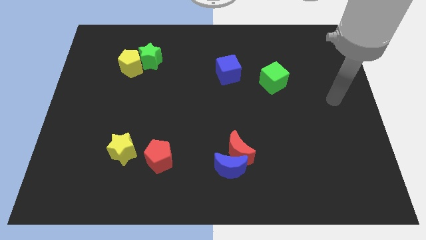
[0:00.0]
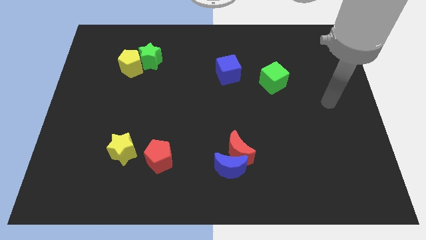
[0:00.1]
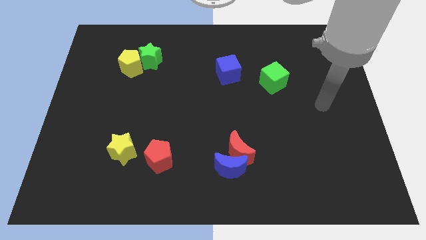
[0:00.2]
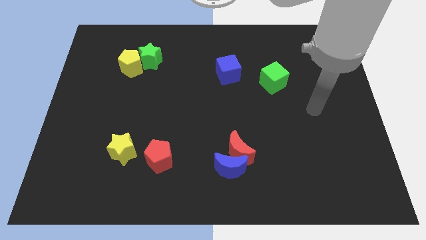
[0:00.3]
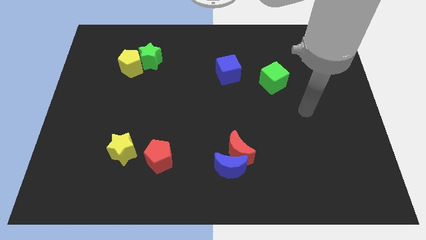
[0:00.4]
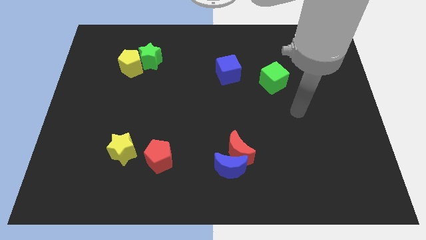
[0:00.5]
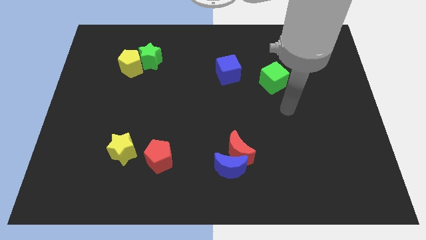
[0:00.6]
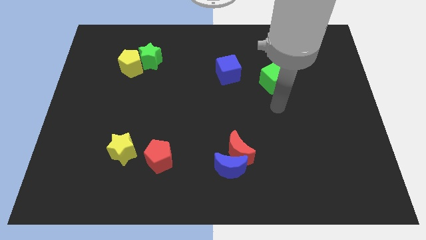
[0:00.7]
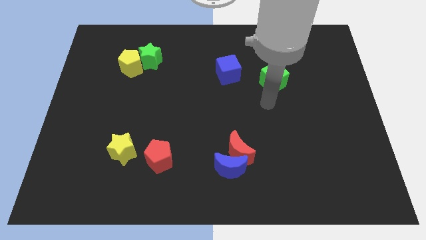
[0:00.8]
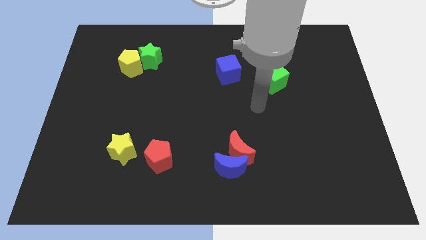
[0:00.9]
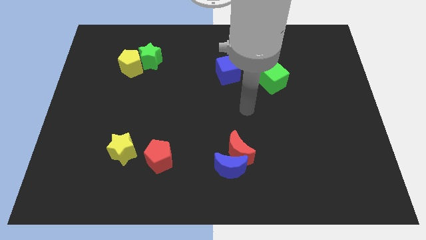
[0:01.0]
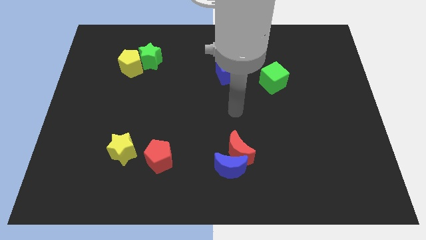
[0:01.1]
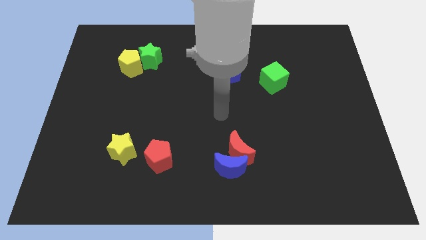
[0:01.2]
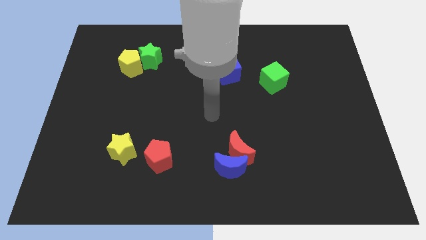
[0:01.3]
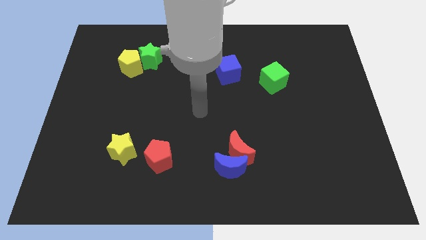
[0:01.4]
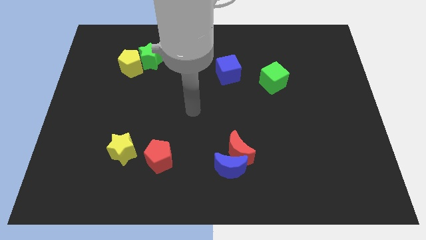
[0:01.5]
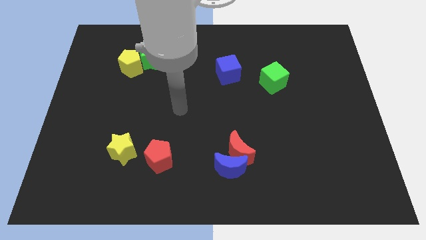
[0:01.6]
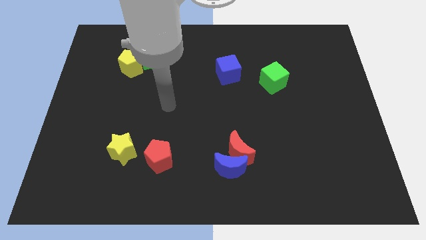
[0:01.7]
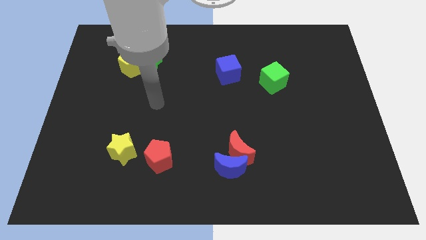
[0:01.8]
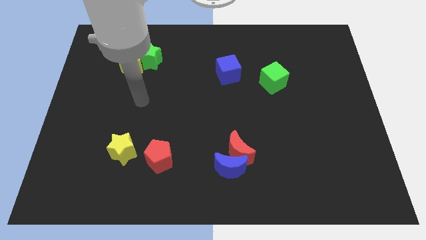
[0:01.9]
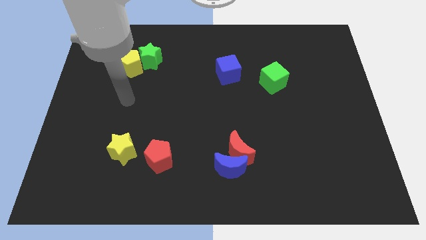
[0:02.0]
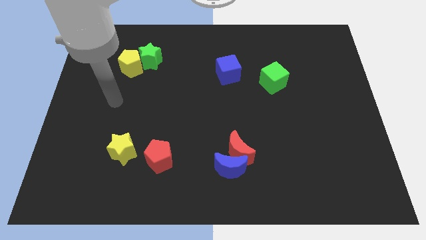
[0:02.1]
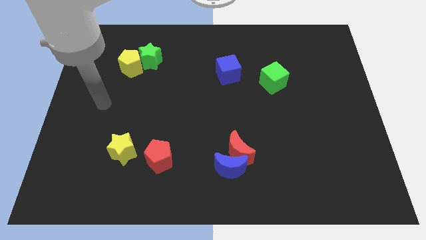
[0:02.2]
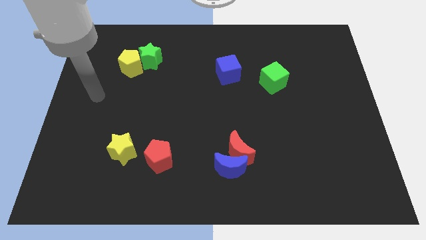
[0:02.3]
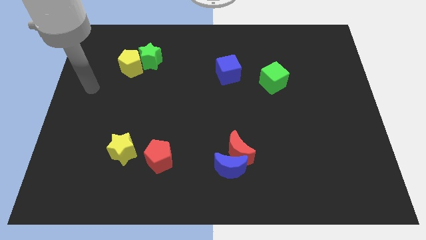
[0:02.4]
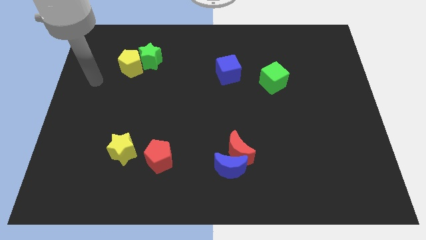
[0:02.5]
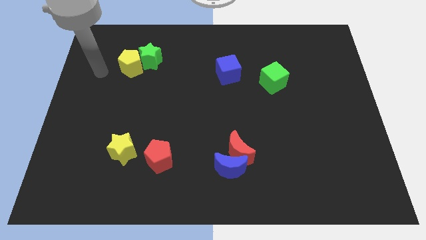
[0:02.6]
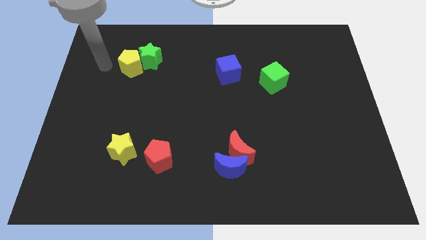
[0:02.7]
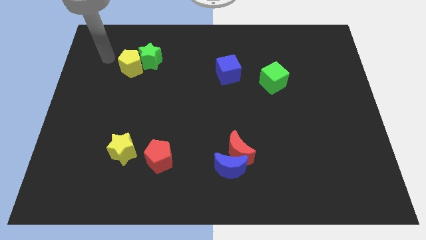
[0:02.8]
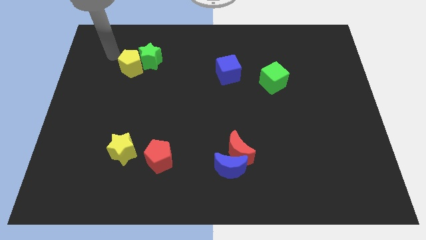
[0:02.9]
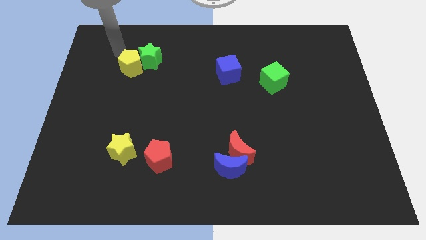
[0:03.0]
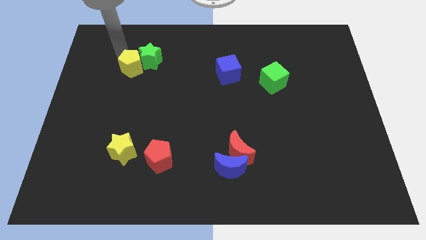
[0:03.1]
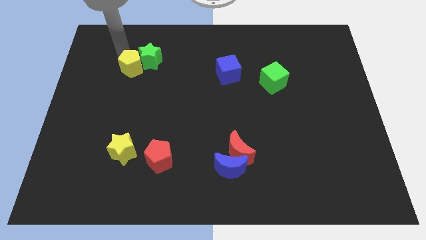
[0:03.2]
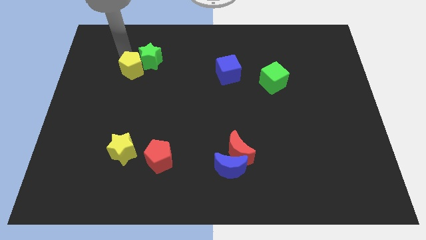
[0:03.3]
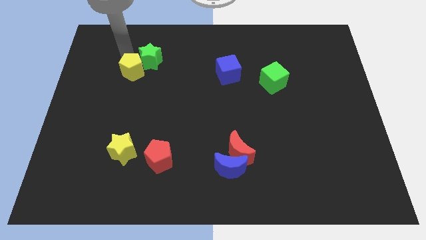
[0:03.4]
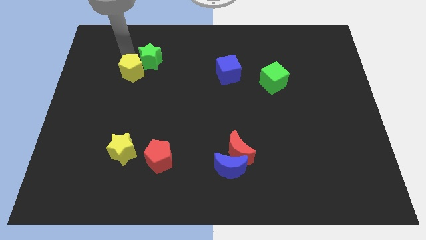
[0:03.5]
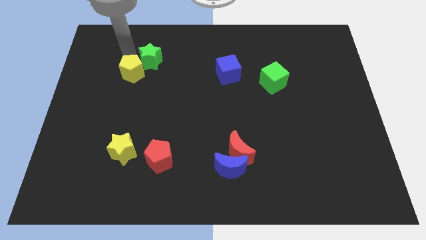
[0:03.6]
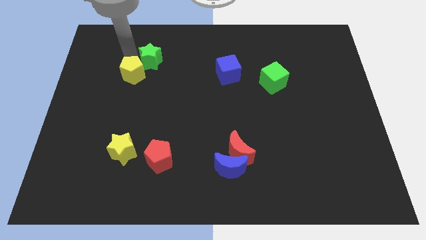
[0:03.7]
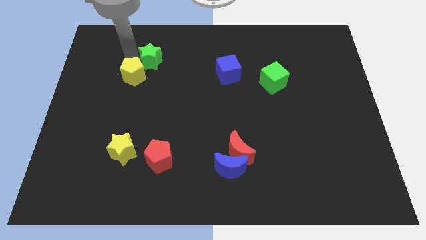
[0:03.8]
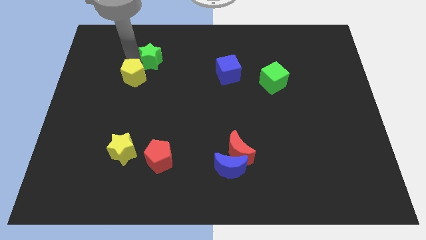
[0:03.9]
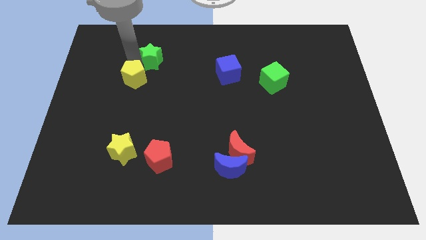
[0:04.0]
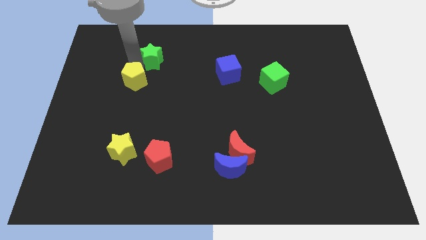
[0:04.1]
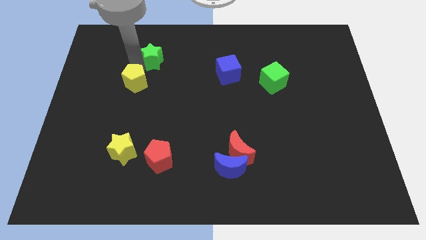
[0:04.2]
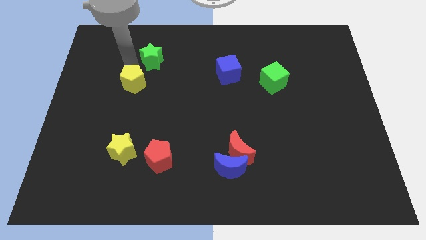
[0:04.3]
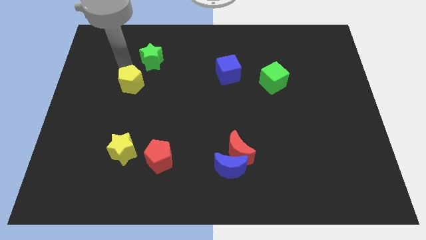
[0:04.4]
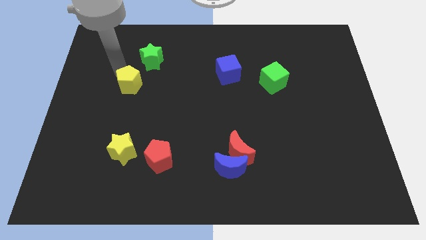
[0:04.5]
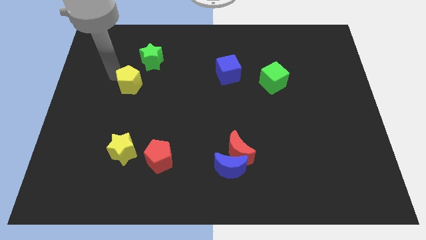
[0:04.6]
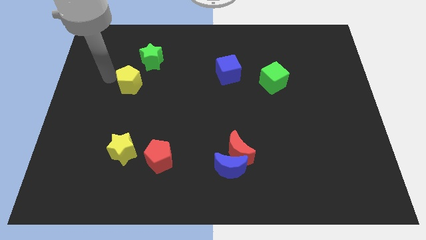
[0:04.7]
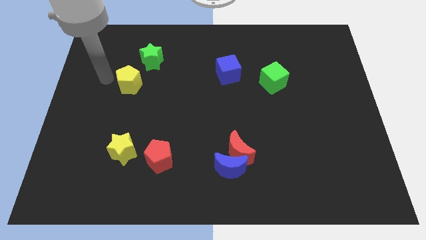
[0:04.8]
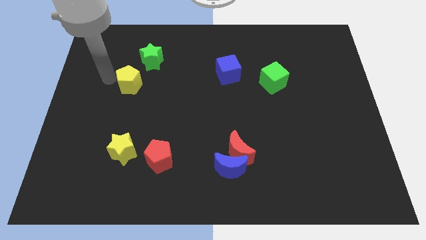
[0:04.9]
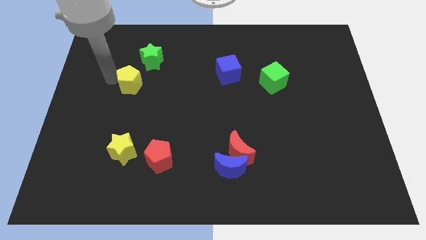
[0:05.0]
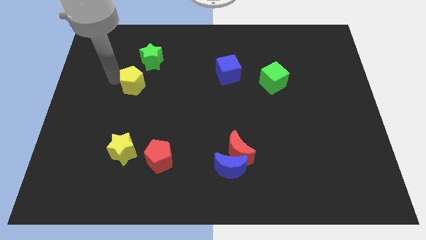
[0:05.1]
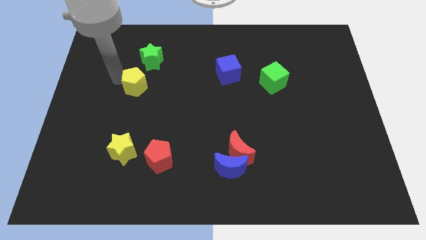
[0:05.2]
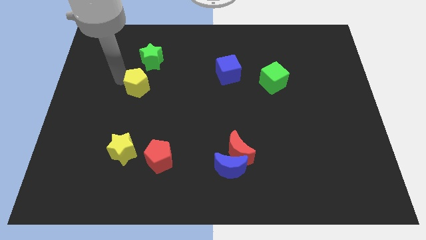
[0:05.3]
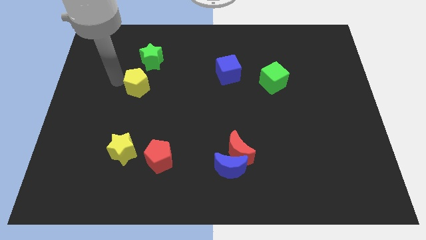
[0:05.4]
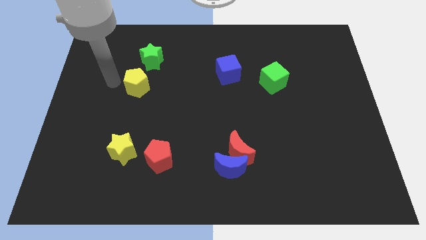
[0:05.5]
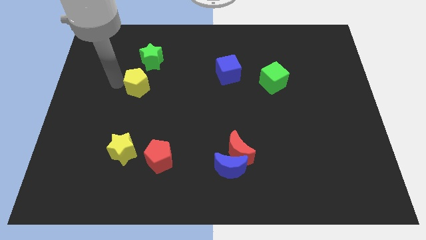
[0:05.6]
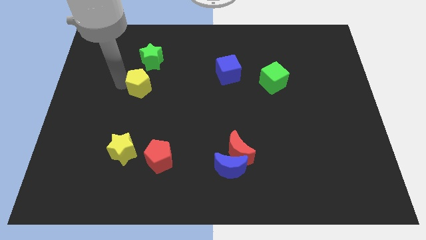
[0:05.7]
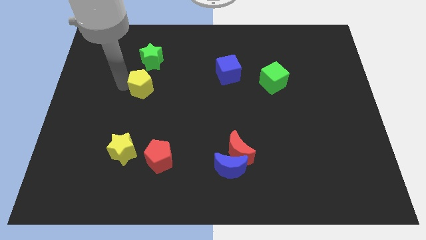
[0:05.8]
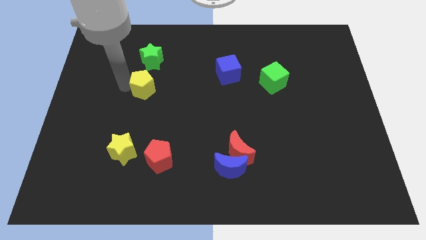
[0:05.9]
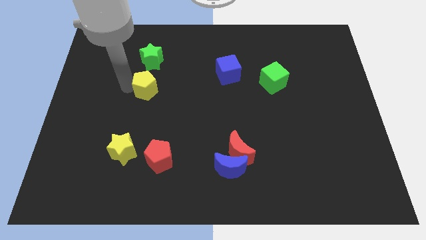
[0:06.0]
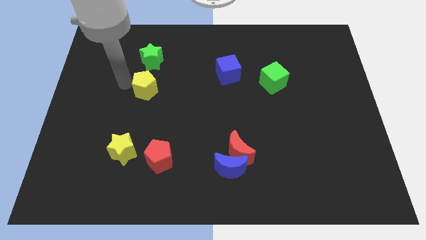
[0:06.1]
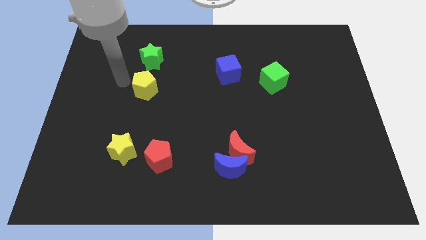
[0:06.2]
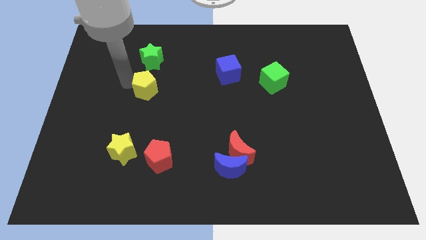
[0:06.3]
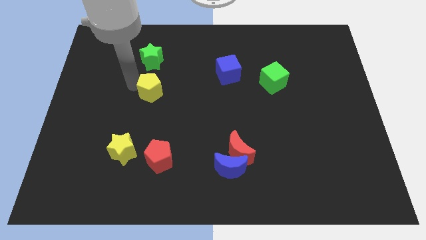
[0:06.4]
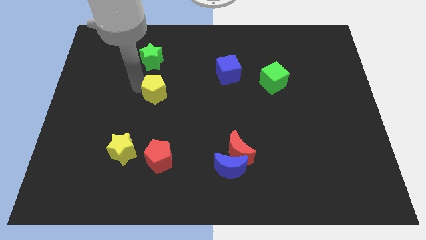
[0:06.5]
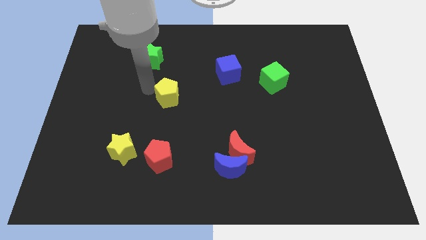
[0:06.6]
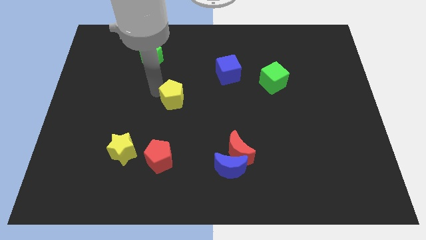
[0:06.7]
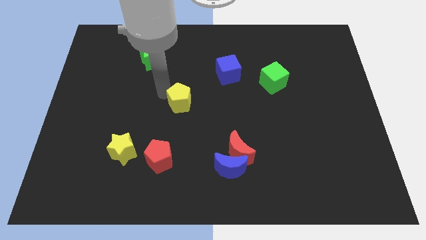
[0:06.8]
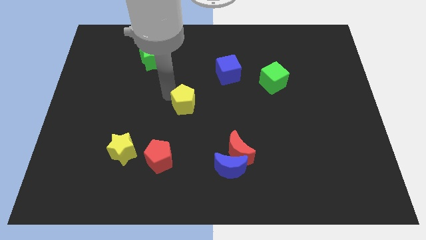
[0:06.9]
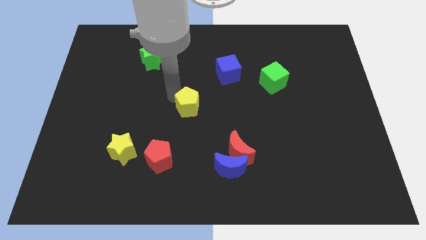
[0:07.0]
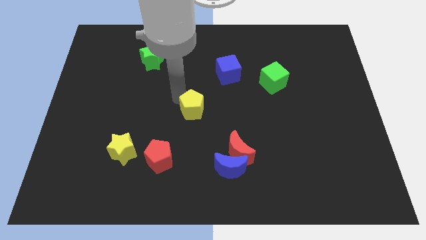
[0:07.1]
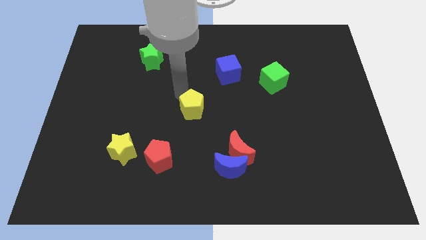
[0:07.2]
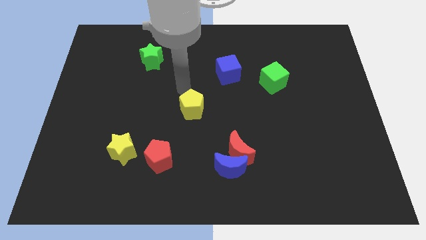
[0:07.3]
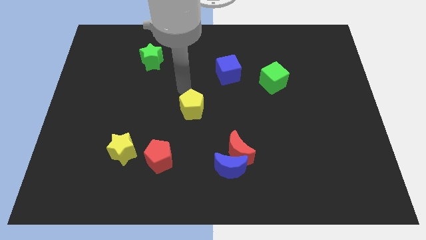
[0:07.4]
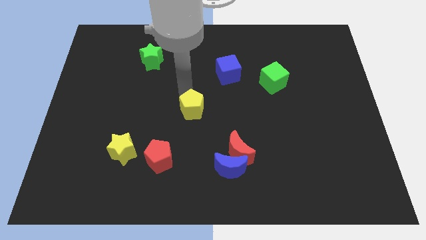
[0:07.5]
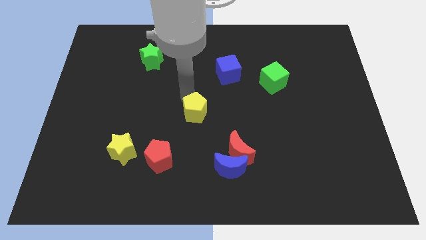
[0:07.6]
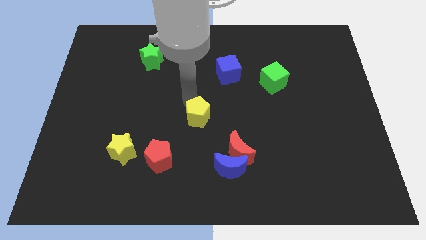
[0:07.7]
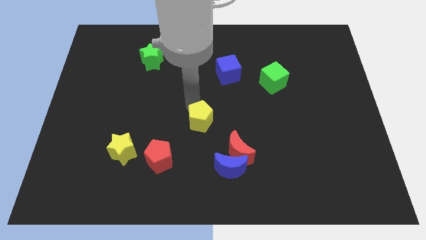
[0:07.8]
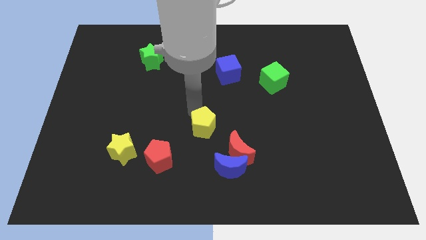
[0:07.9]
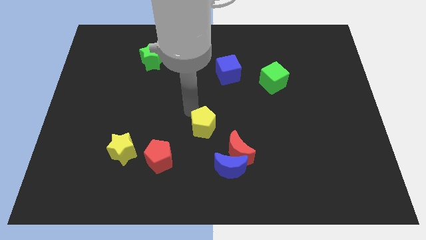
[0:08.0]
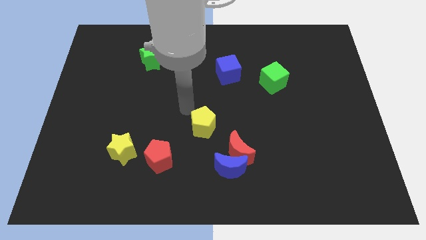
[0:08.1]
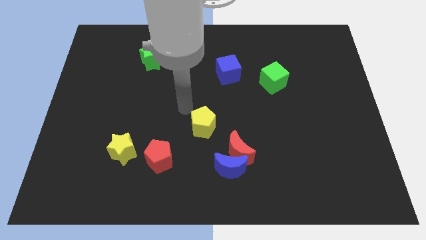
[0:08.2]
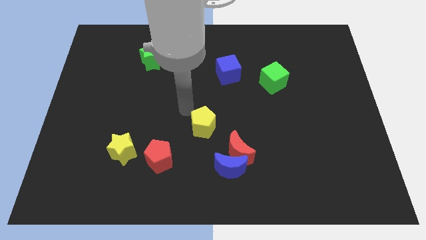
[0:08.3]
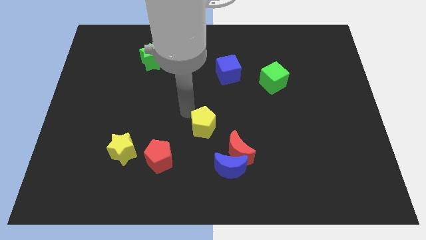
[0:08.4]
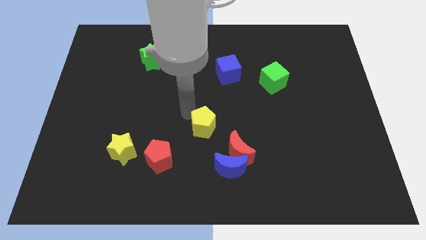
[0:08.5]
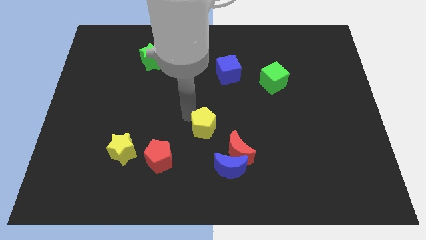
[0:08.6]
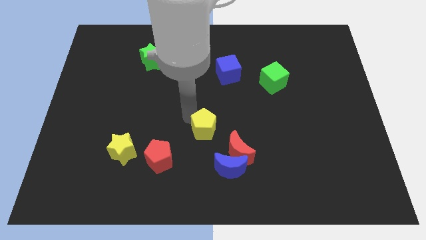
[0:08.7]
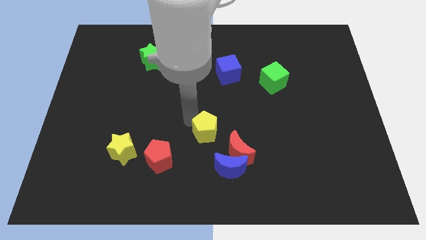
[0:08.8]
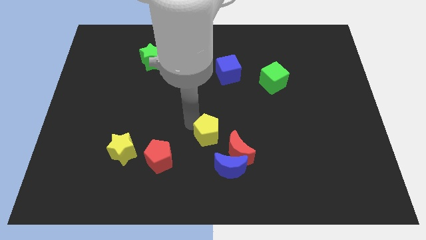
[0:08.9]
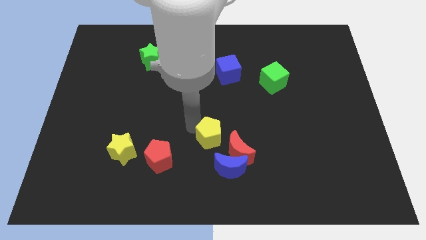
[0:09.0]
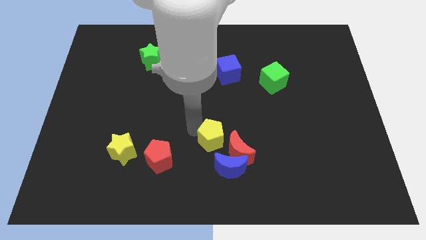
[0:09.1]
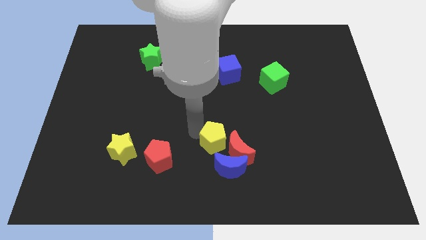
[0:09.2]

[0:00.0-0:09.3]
push the yellow pentagon next to the red moon
